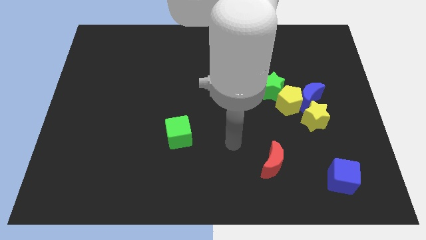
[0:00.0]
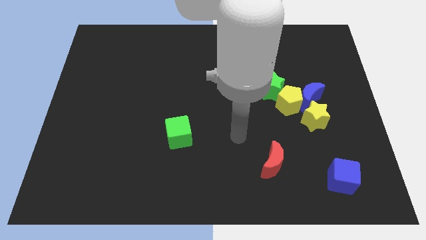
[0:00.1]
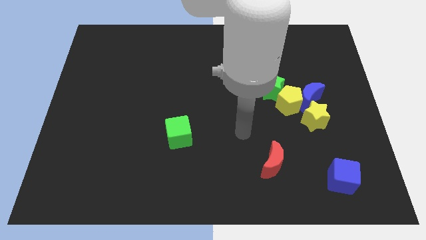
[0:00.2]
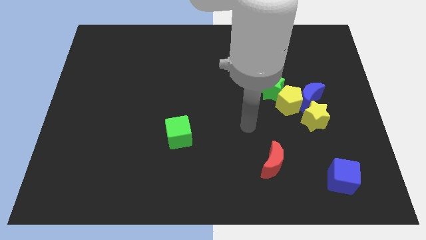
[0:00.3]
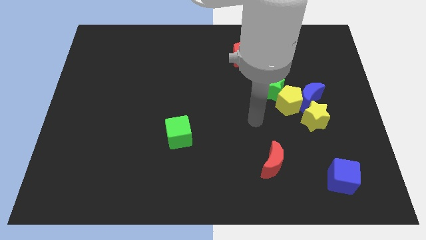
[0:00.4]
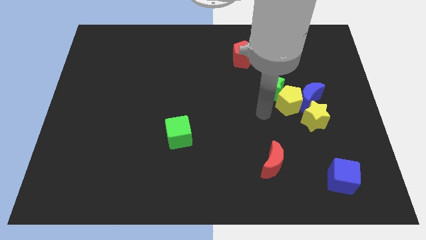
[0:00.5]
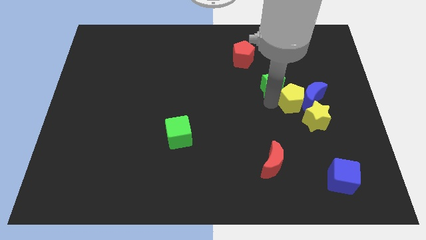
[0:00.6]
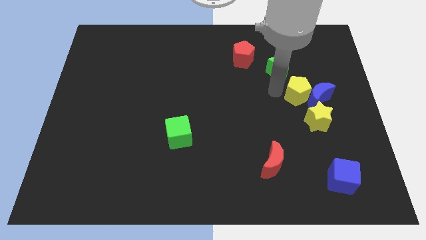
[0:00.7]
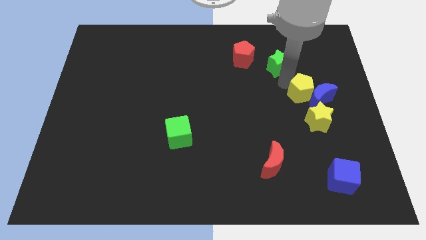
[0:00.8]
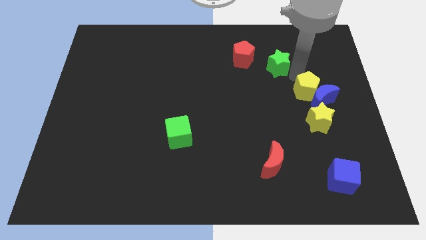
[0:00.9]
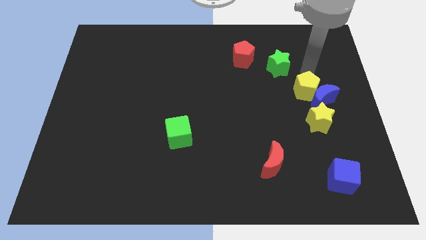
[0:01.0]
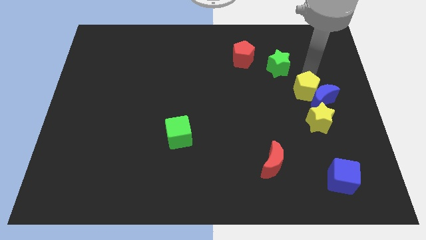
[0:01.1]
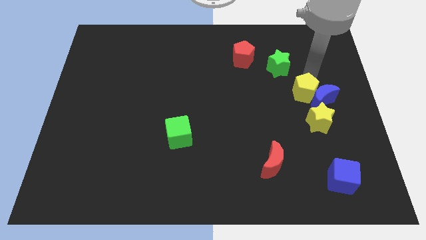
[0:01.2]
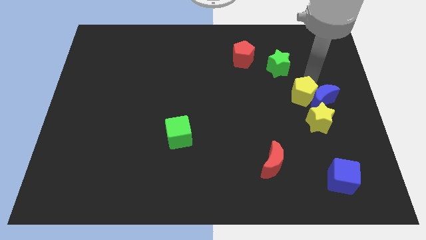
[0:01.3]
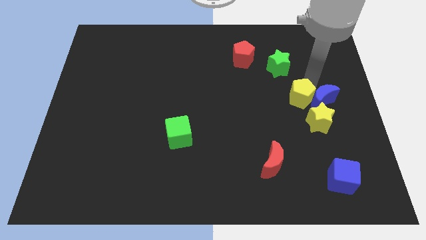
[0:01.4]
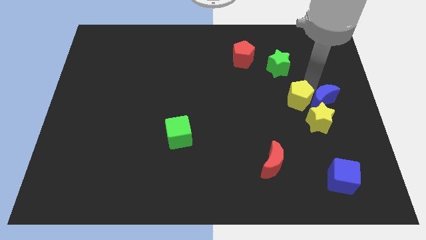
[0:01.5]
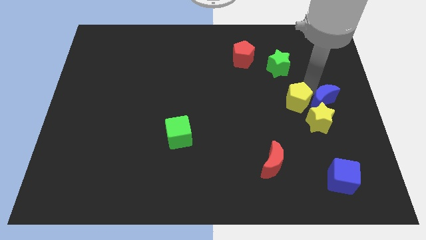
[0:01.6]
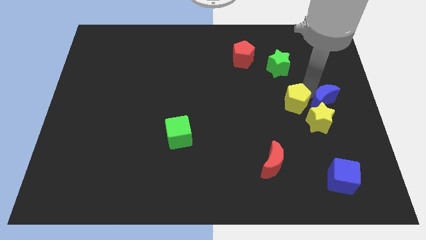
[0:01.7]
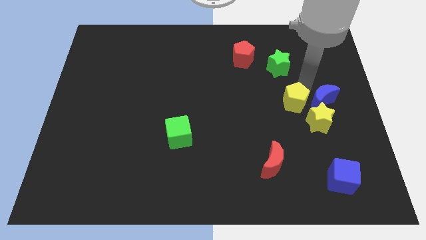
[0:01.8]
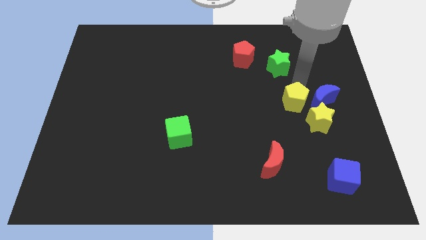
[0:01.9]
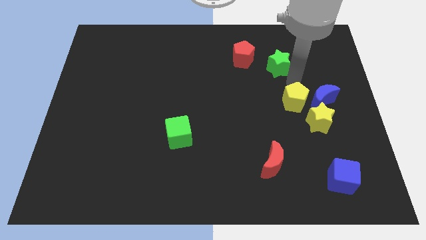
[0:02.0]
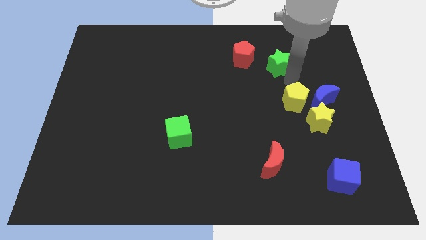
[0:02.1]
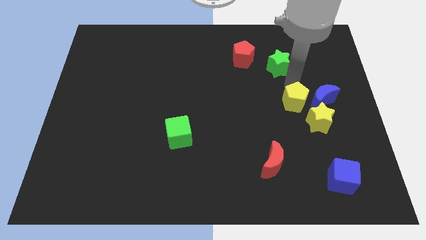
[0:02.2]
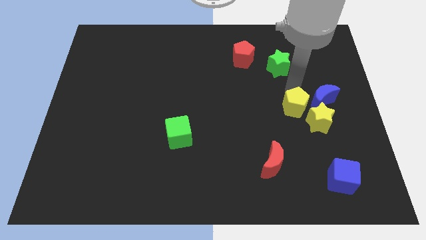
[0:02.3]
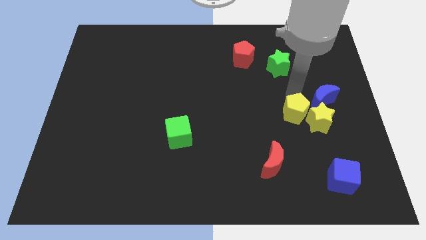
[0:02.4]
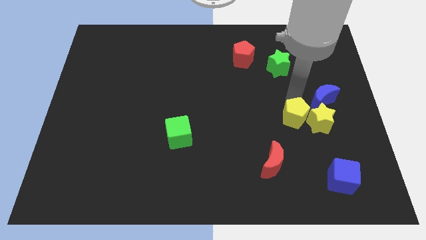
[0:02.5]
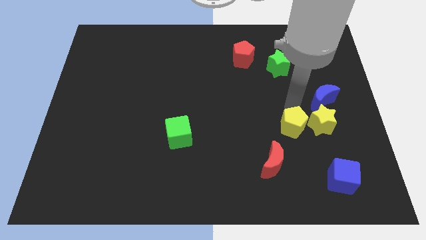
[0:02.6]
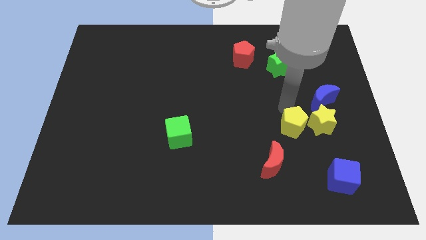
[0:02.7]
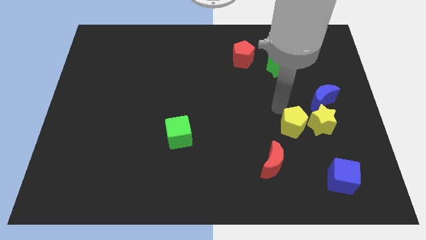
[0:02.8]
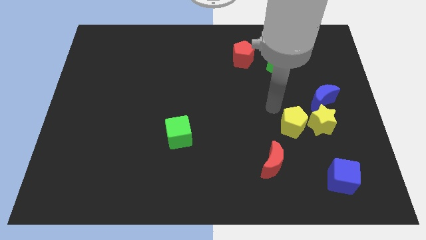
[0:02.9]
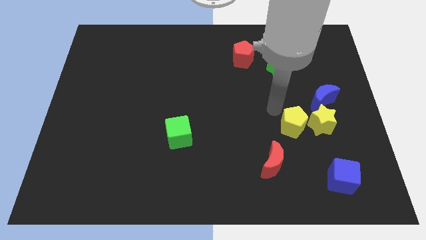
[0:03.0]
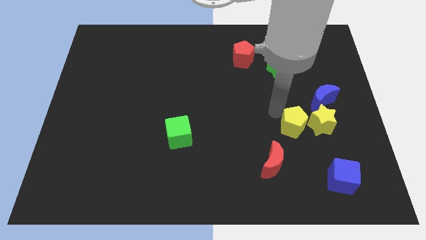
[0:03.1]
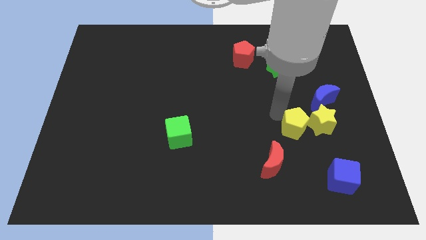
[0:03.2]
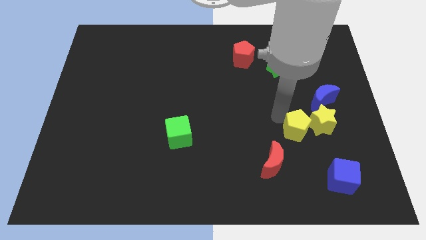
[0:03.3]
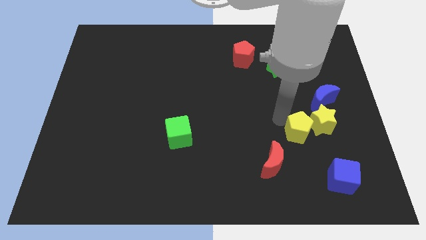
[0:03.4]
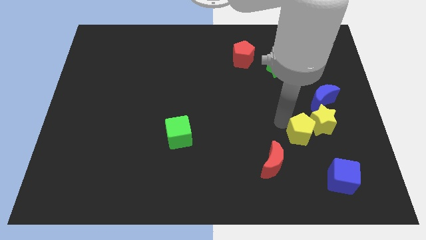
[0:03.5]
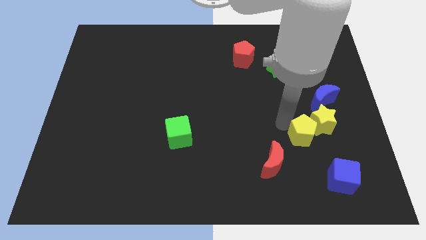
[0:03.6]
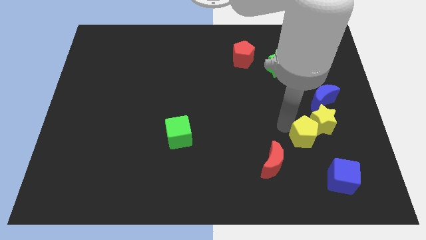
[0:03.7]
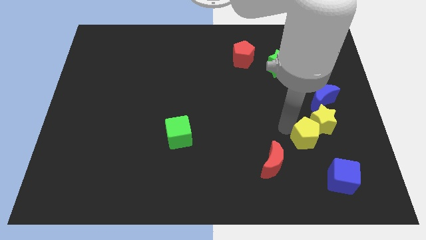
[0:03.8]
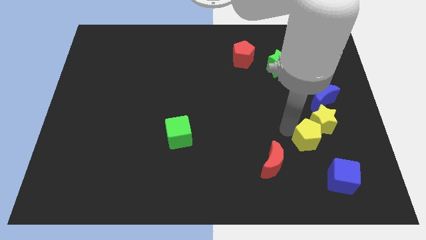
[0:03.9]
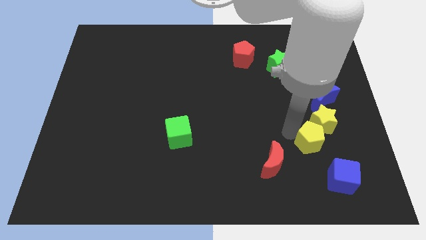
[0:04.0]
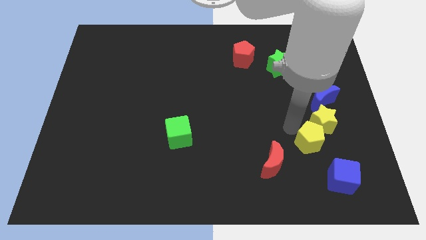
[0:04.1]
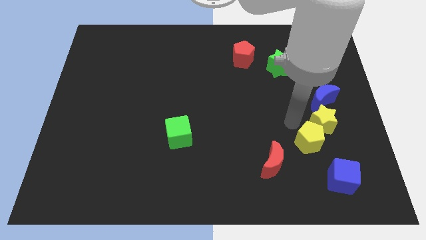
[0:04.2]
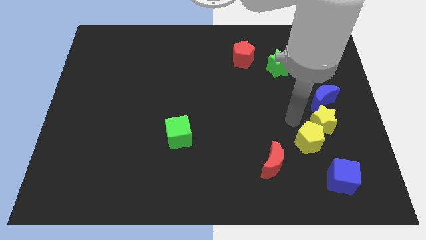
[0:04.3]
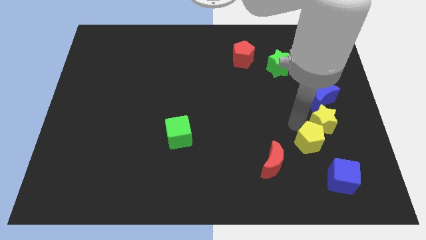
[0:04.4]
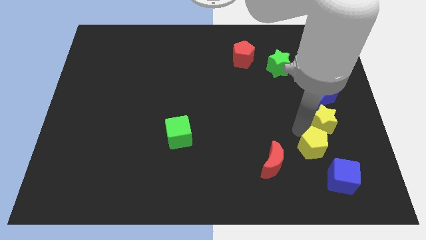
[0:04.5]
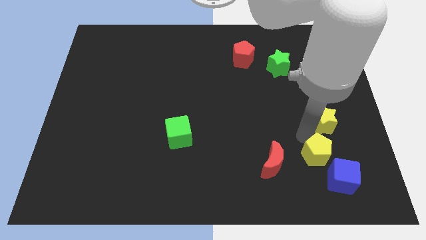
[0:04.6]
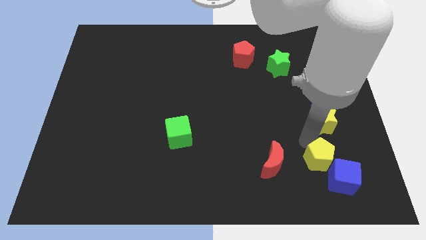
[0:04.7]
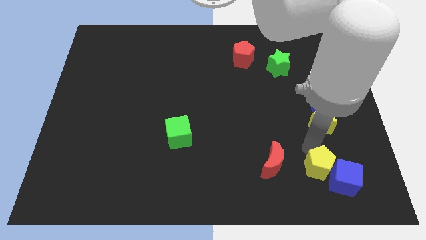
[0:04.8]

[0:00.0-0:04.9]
slide the yellow pentagon close to the blue cube

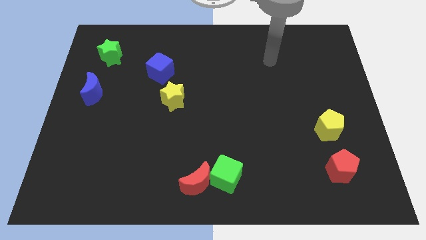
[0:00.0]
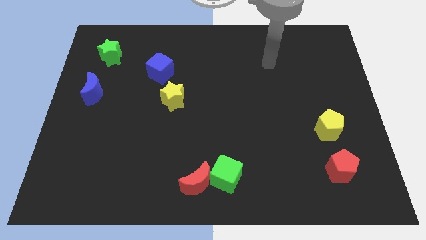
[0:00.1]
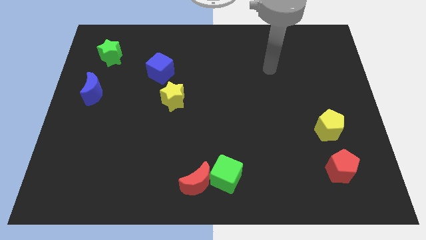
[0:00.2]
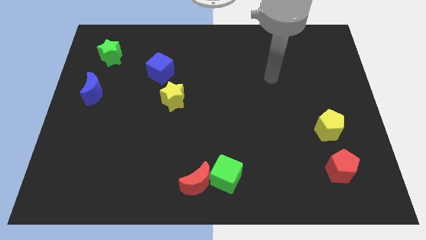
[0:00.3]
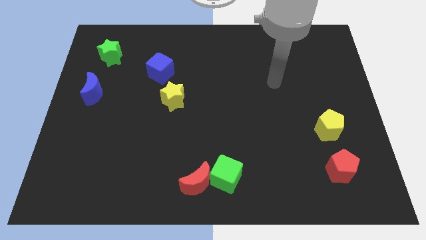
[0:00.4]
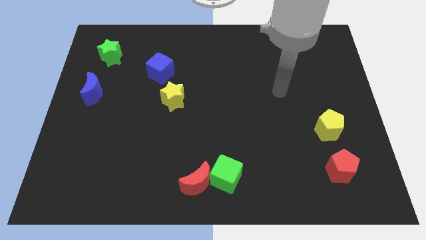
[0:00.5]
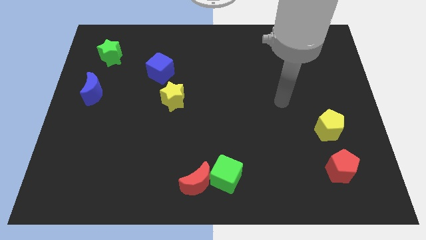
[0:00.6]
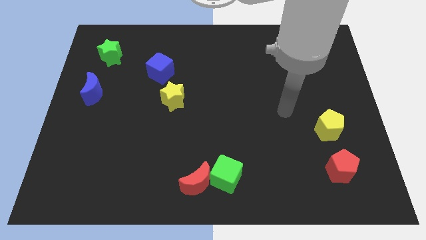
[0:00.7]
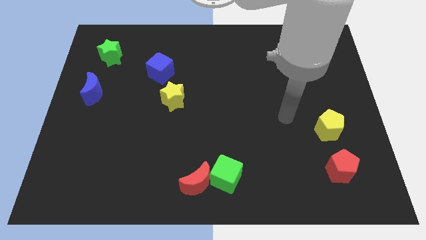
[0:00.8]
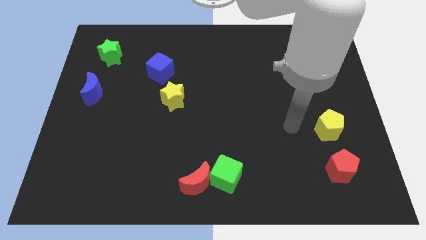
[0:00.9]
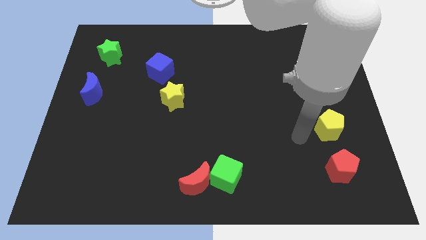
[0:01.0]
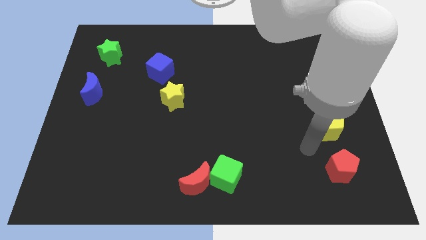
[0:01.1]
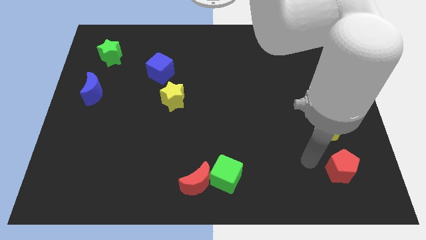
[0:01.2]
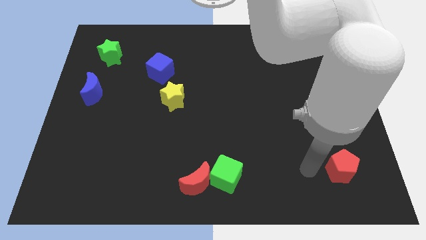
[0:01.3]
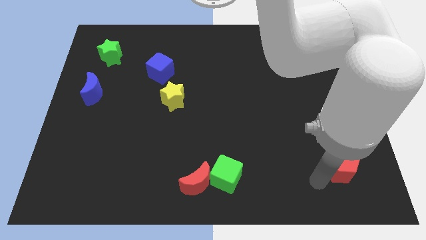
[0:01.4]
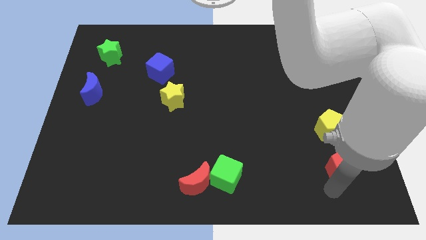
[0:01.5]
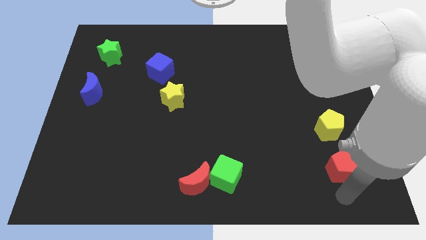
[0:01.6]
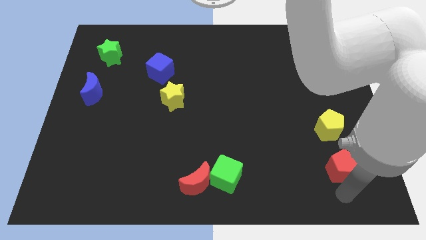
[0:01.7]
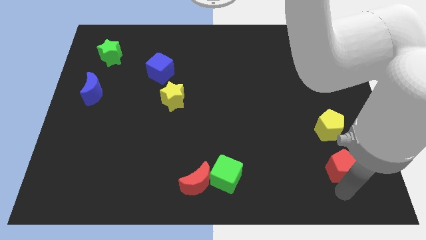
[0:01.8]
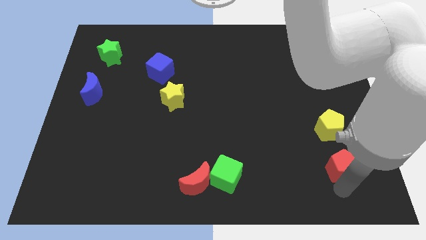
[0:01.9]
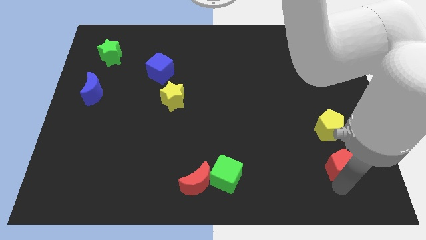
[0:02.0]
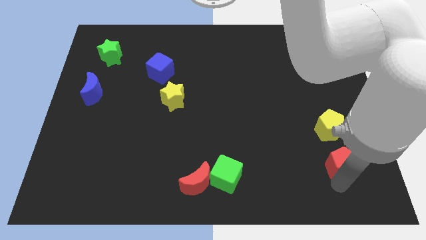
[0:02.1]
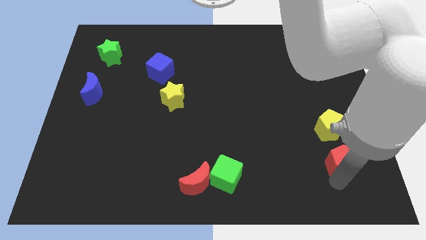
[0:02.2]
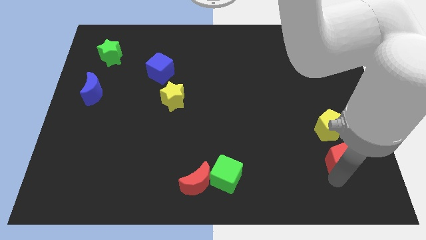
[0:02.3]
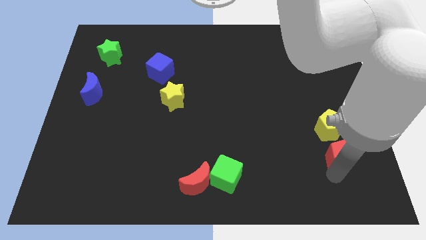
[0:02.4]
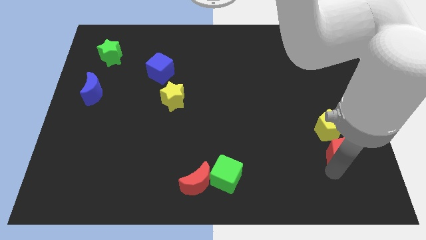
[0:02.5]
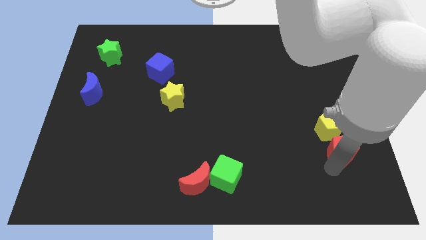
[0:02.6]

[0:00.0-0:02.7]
push the red pentagon towards the yellow pentagon
